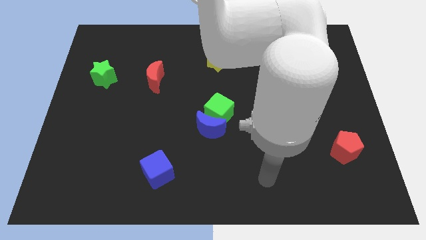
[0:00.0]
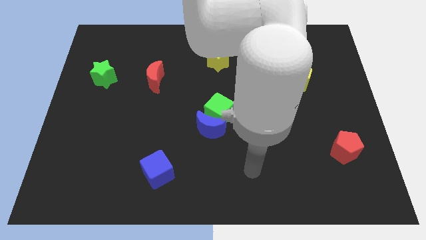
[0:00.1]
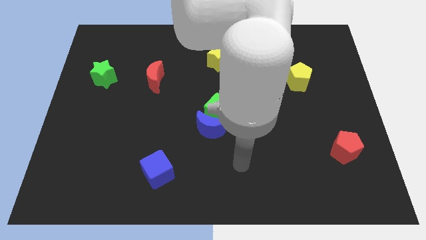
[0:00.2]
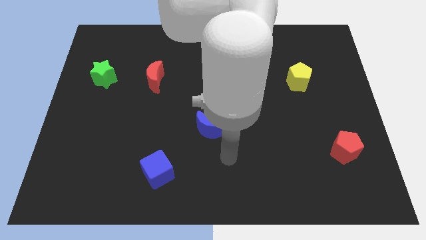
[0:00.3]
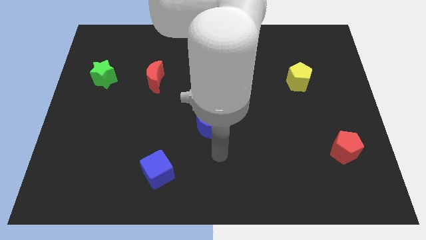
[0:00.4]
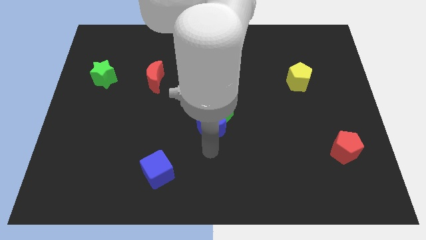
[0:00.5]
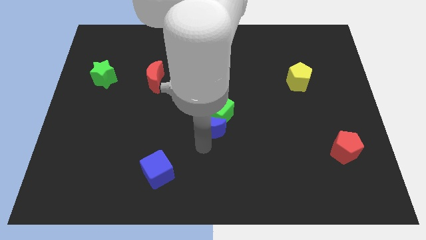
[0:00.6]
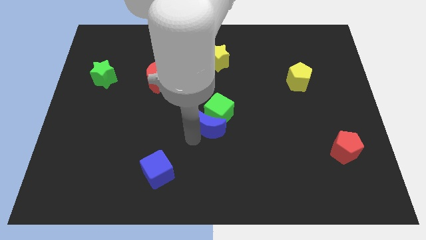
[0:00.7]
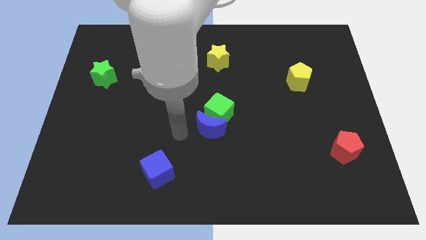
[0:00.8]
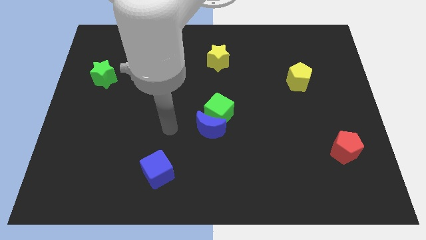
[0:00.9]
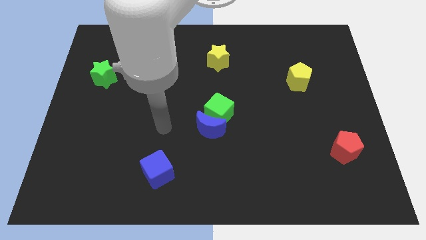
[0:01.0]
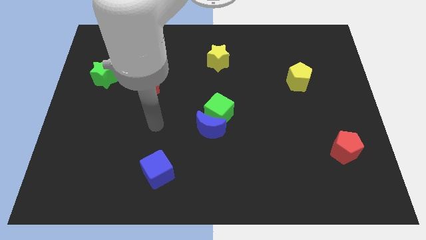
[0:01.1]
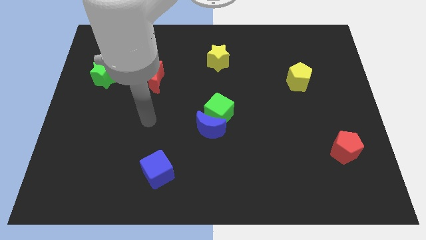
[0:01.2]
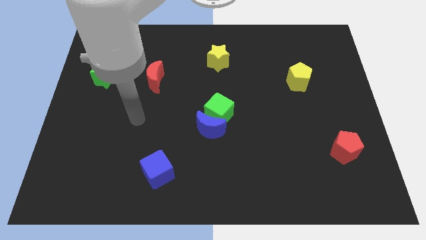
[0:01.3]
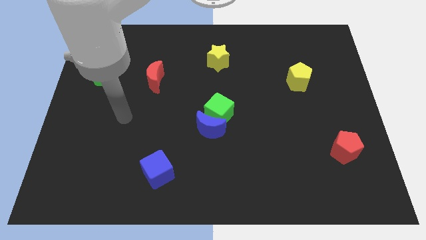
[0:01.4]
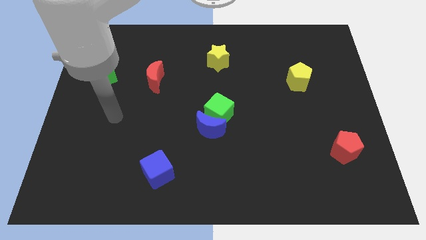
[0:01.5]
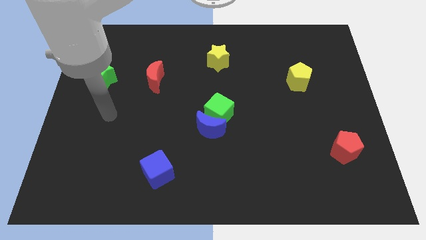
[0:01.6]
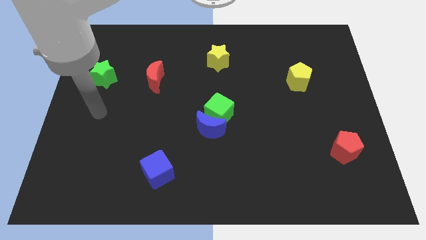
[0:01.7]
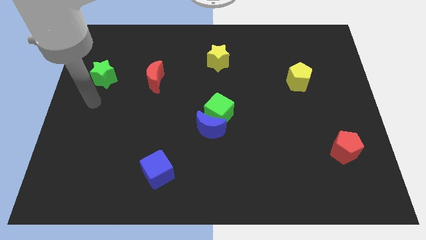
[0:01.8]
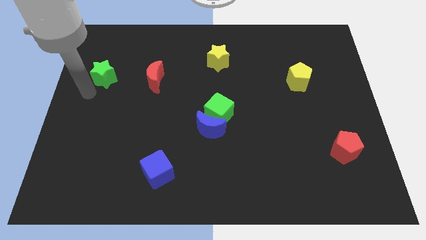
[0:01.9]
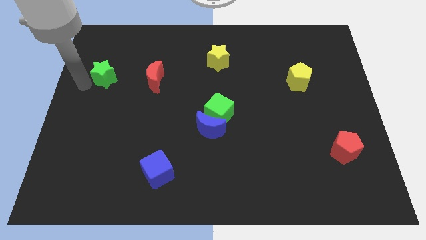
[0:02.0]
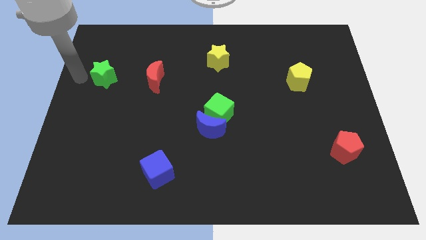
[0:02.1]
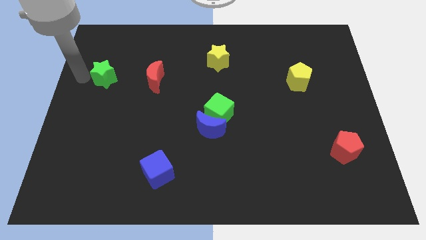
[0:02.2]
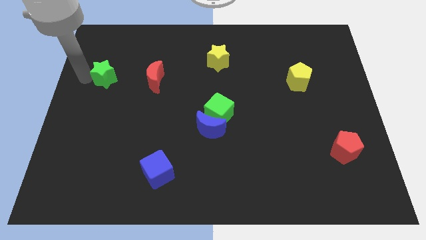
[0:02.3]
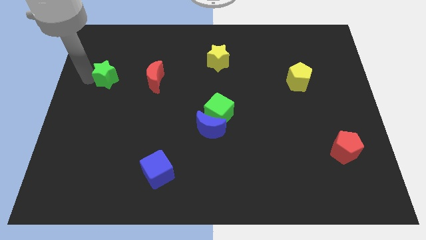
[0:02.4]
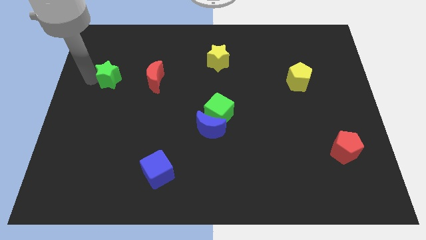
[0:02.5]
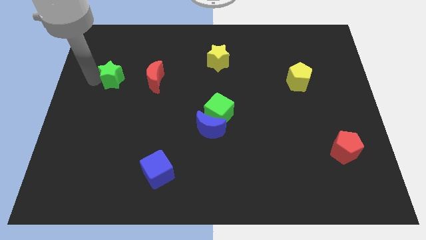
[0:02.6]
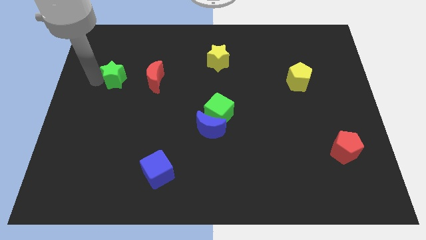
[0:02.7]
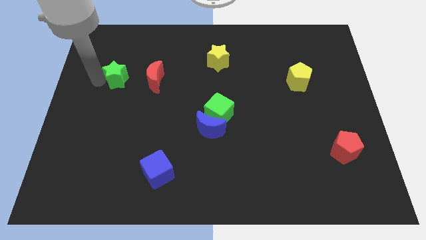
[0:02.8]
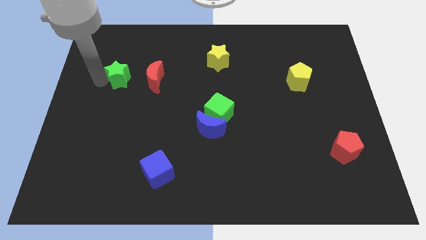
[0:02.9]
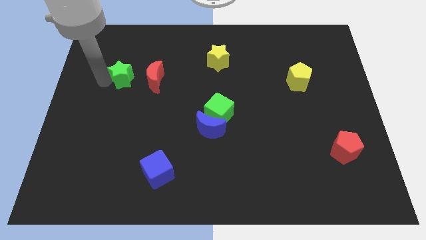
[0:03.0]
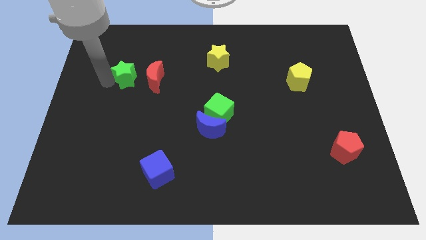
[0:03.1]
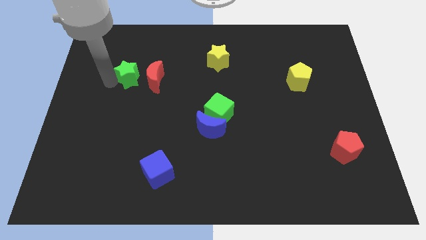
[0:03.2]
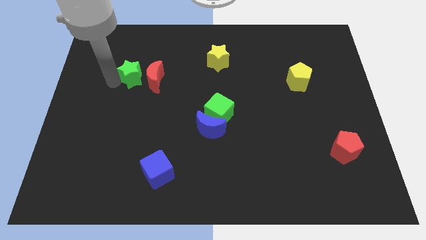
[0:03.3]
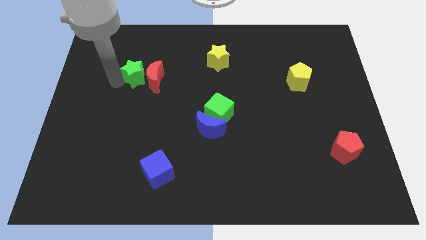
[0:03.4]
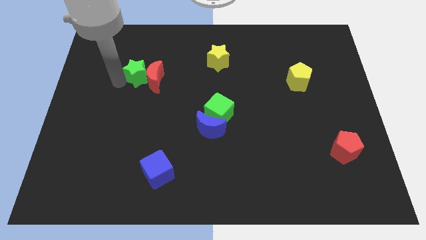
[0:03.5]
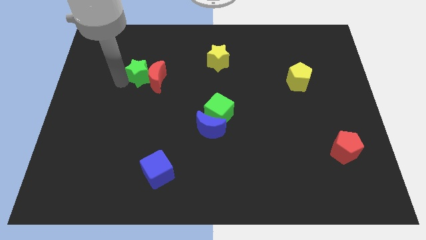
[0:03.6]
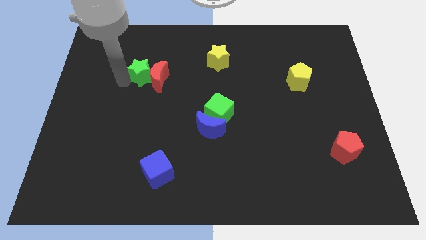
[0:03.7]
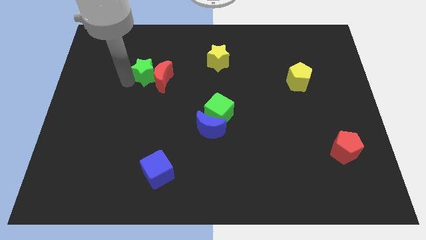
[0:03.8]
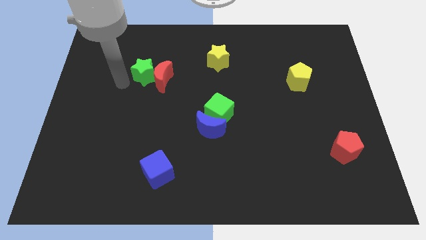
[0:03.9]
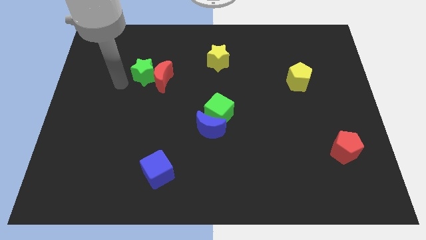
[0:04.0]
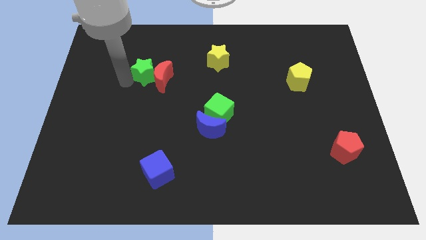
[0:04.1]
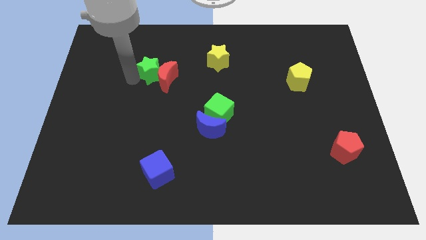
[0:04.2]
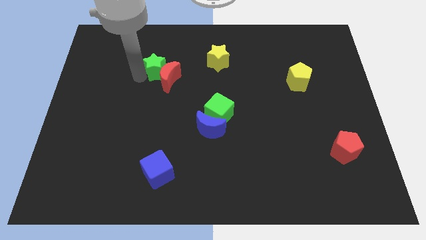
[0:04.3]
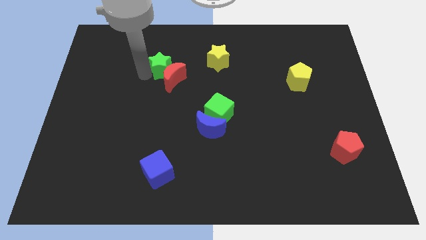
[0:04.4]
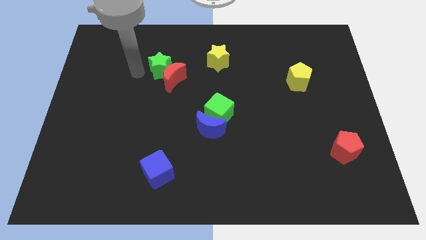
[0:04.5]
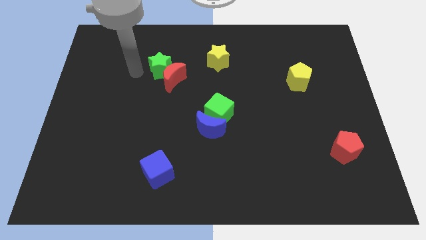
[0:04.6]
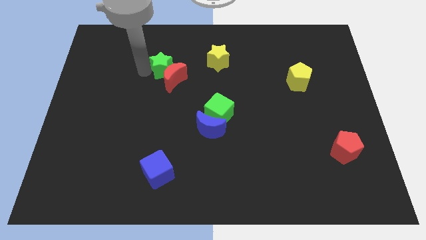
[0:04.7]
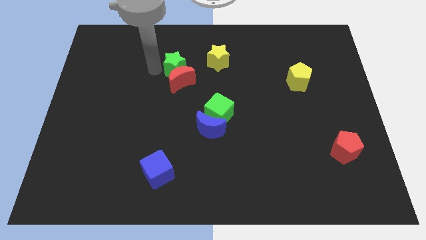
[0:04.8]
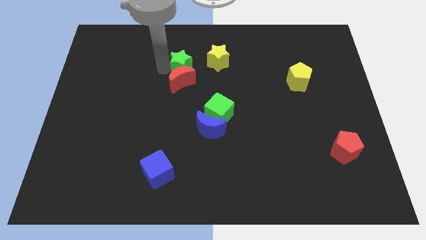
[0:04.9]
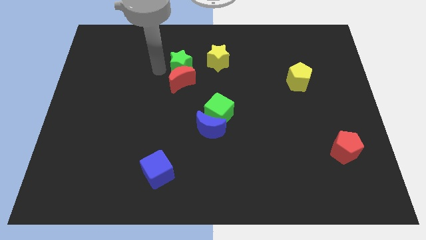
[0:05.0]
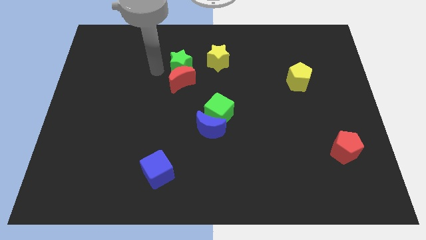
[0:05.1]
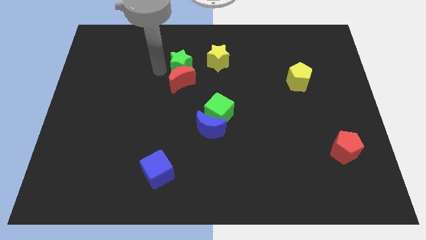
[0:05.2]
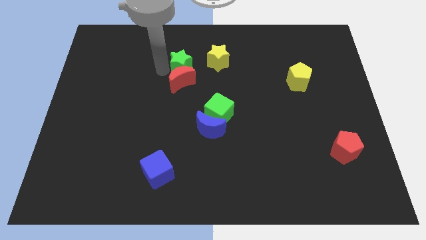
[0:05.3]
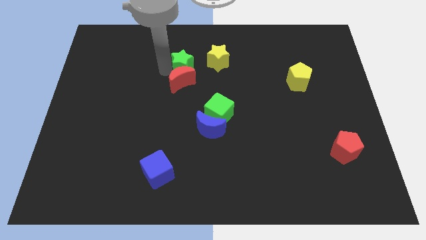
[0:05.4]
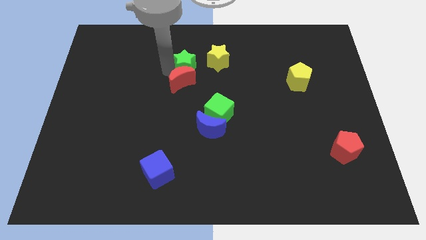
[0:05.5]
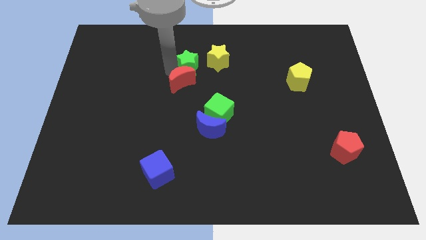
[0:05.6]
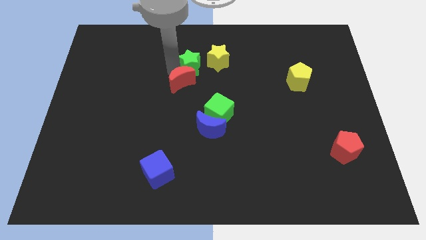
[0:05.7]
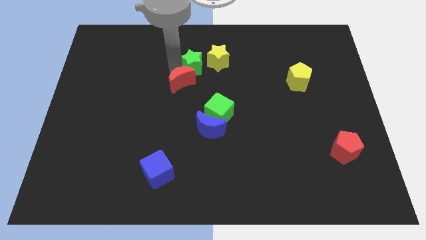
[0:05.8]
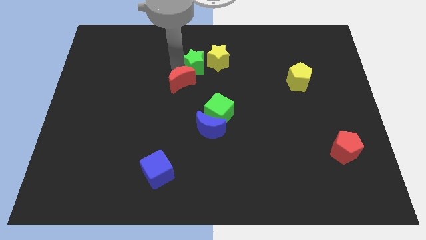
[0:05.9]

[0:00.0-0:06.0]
slide the green star towards the yellow star
